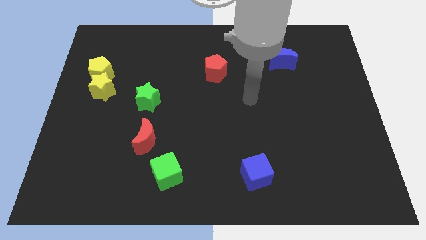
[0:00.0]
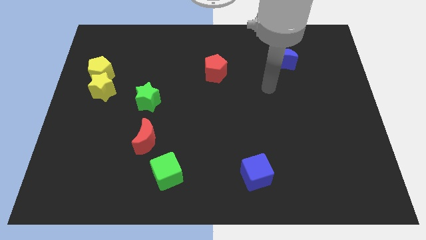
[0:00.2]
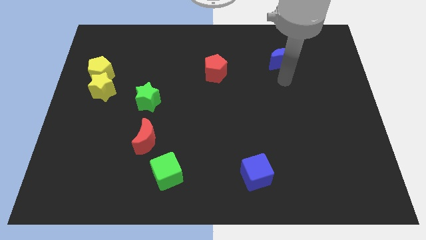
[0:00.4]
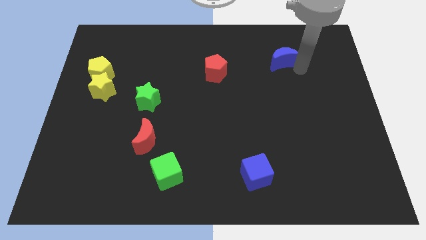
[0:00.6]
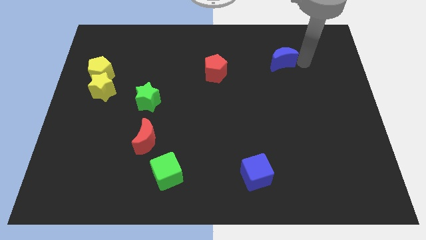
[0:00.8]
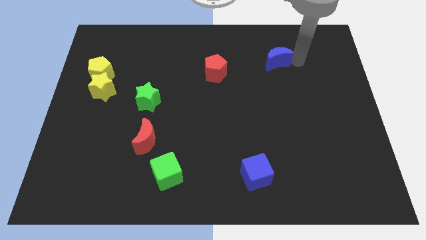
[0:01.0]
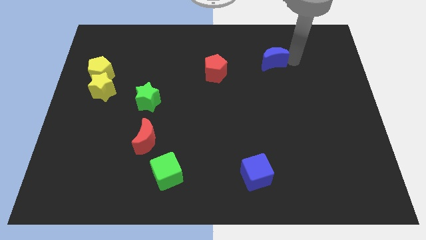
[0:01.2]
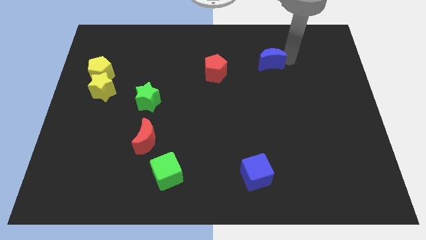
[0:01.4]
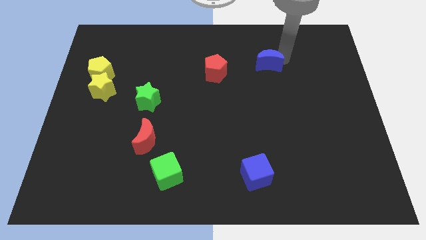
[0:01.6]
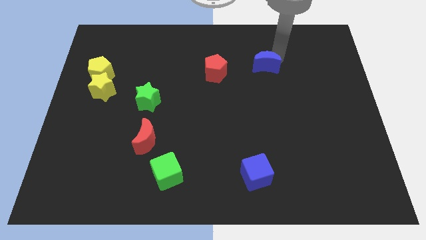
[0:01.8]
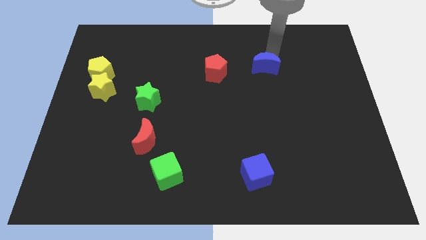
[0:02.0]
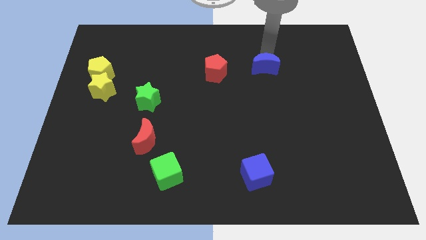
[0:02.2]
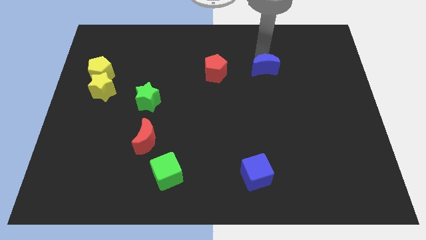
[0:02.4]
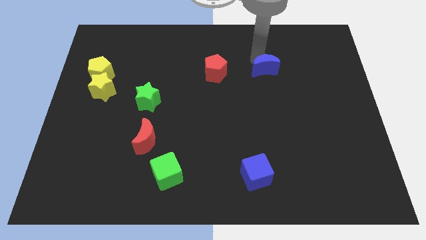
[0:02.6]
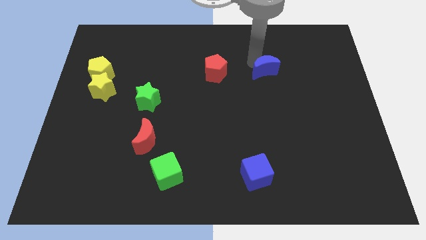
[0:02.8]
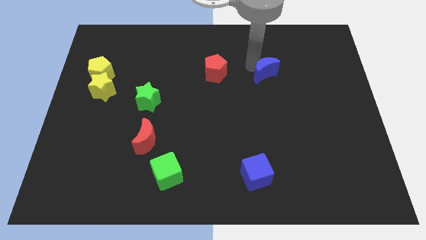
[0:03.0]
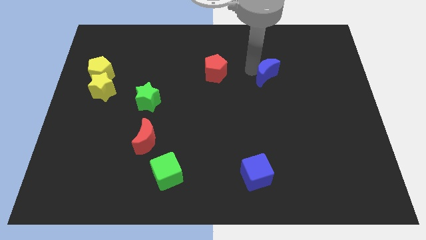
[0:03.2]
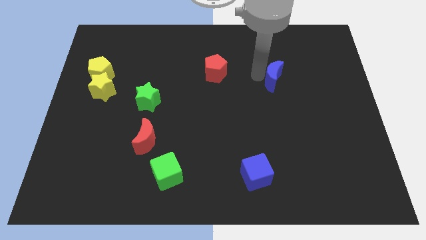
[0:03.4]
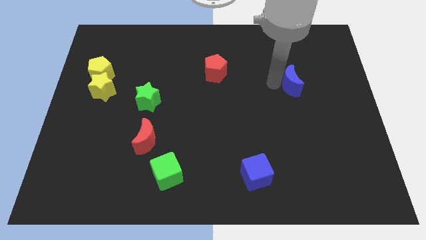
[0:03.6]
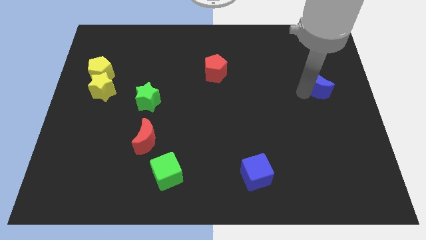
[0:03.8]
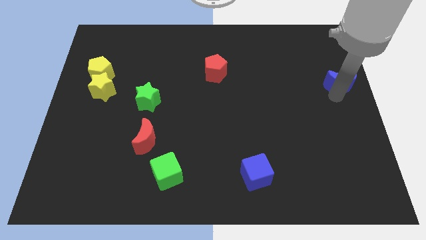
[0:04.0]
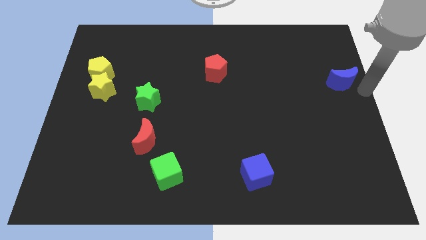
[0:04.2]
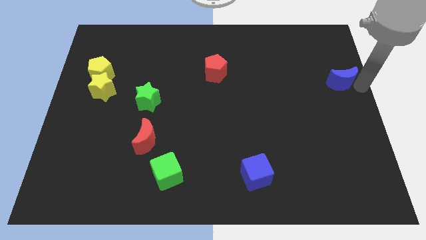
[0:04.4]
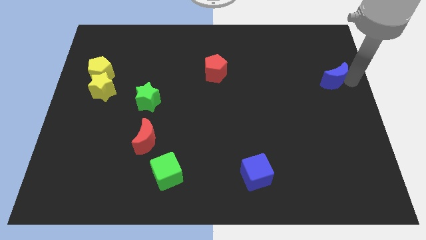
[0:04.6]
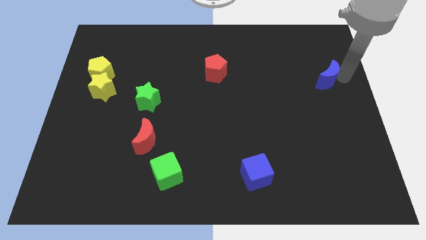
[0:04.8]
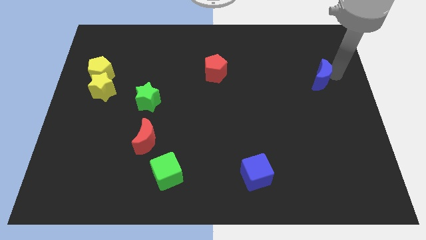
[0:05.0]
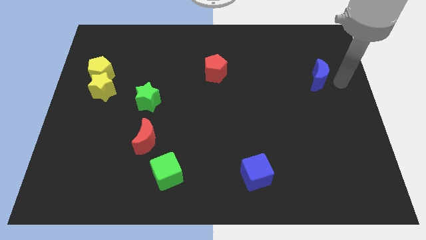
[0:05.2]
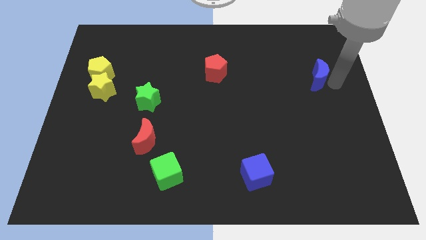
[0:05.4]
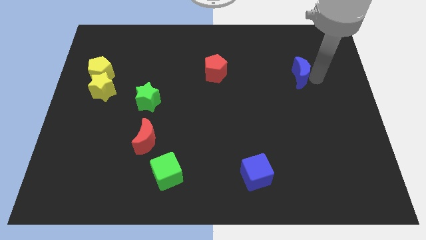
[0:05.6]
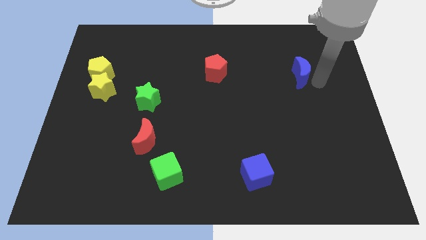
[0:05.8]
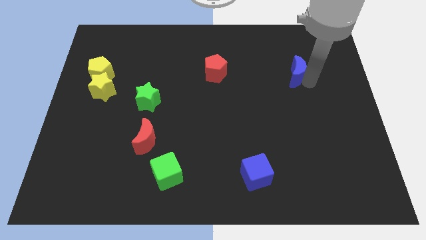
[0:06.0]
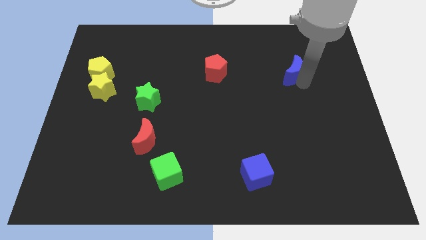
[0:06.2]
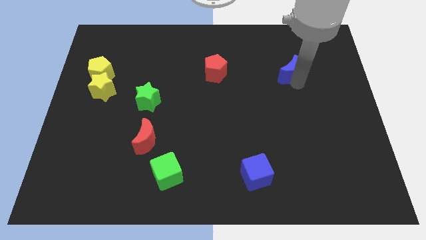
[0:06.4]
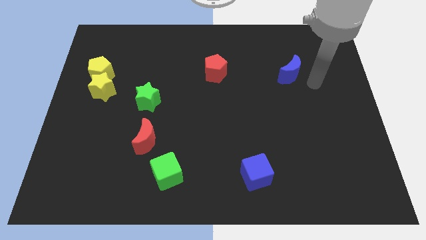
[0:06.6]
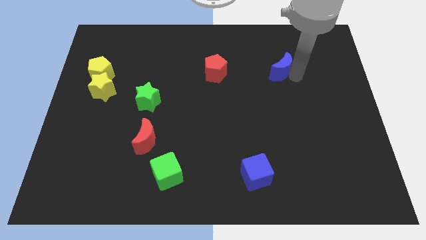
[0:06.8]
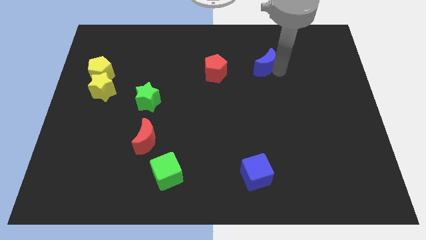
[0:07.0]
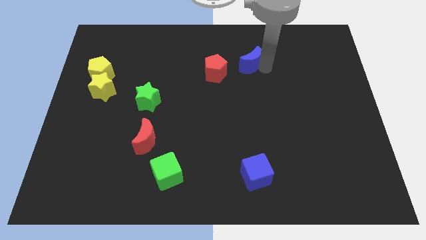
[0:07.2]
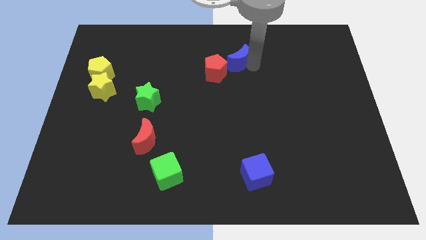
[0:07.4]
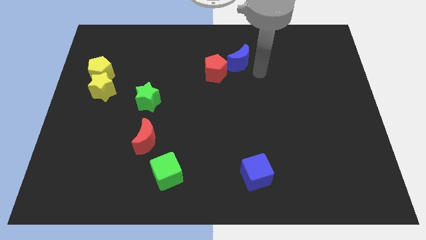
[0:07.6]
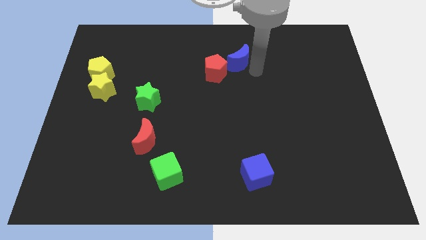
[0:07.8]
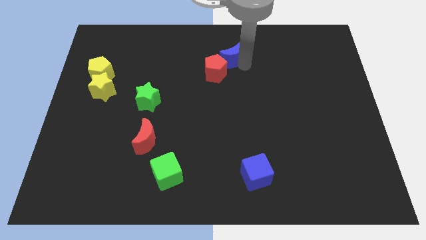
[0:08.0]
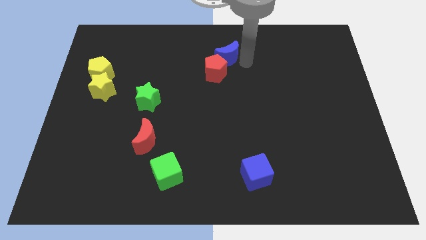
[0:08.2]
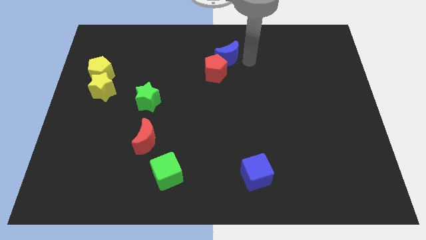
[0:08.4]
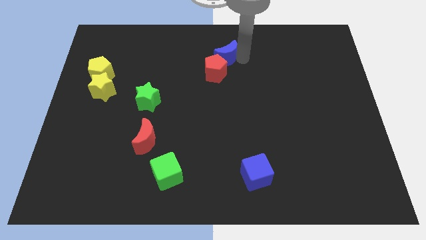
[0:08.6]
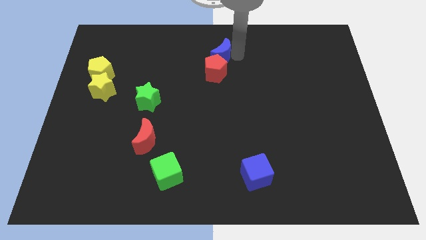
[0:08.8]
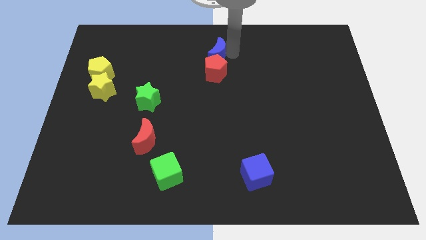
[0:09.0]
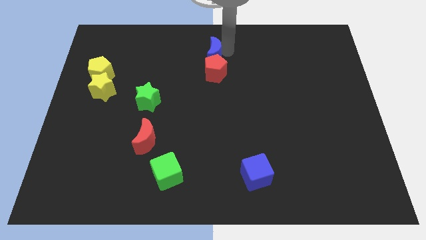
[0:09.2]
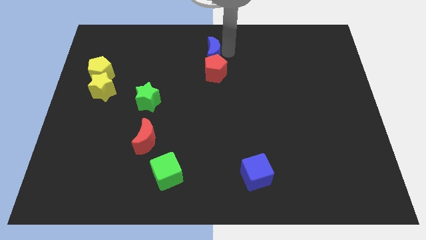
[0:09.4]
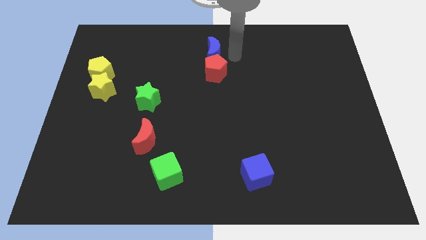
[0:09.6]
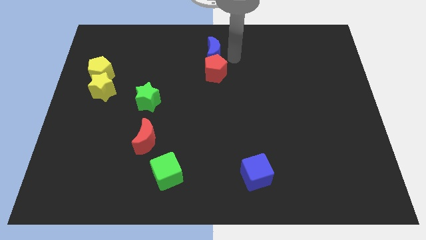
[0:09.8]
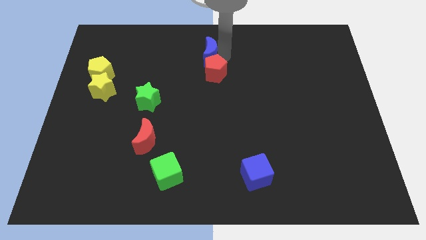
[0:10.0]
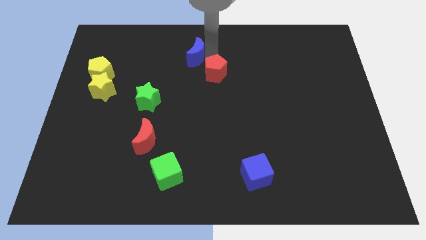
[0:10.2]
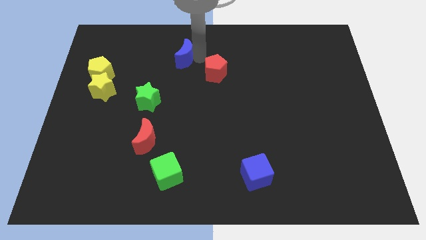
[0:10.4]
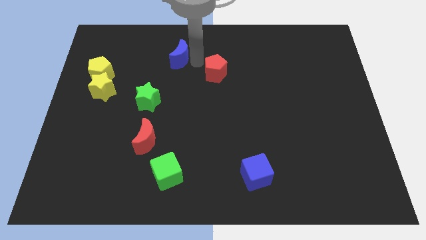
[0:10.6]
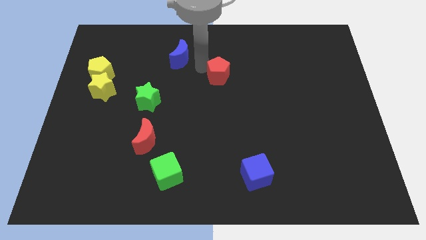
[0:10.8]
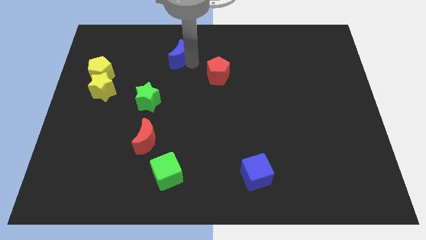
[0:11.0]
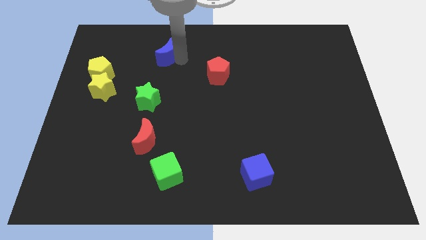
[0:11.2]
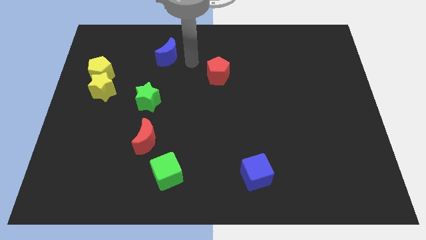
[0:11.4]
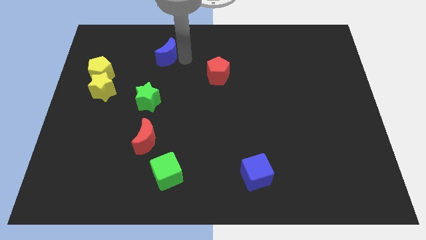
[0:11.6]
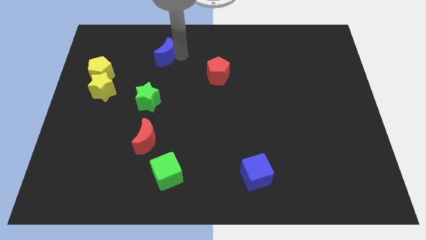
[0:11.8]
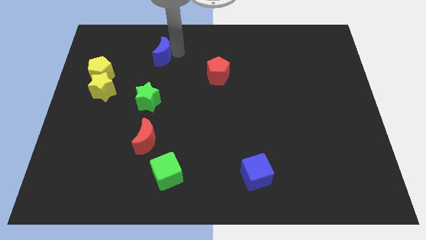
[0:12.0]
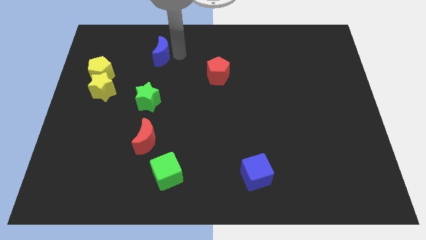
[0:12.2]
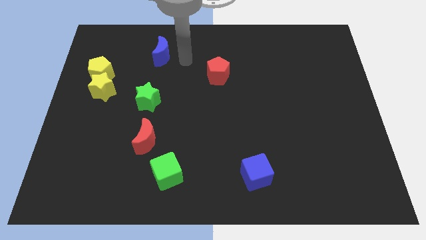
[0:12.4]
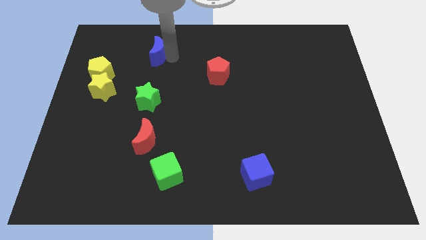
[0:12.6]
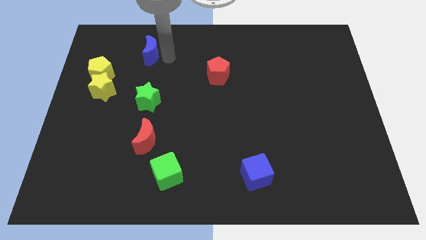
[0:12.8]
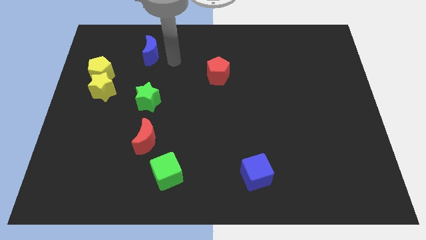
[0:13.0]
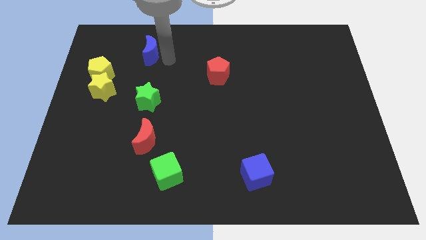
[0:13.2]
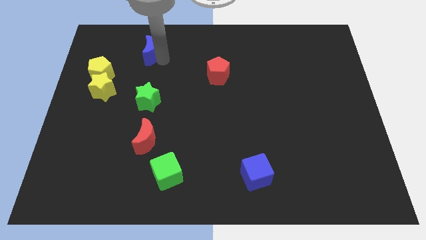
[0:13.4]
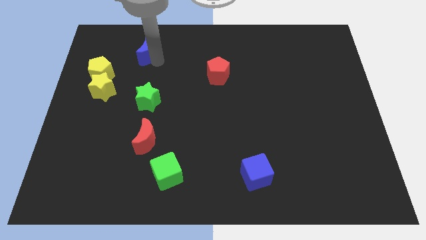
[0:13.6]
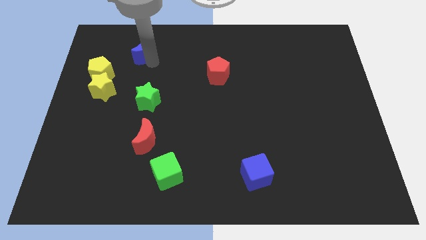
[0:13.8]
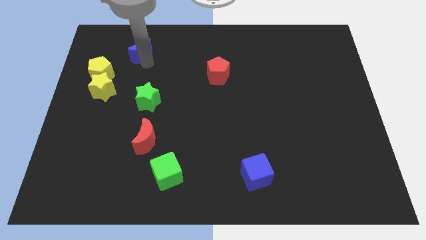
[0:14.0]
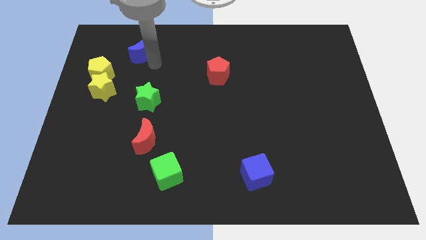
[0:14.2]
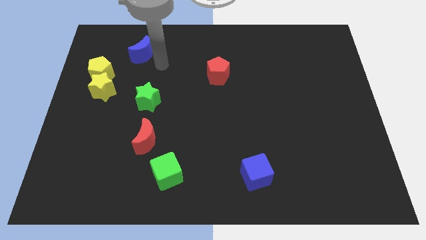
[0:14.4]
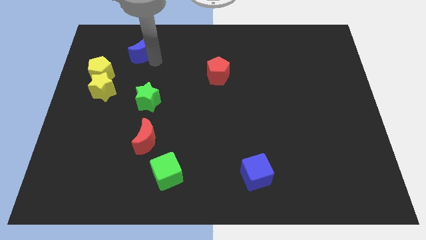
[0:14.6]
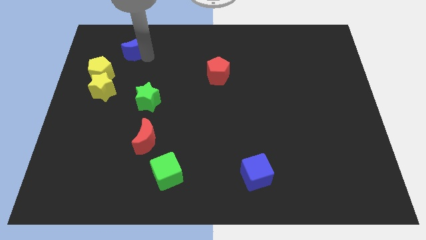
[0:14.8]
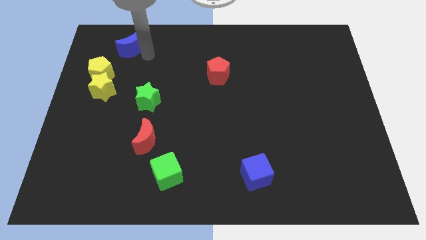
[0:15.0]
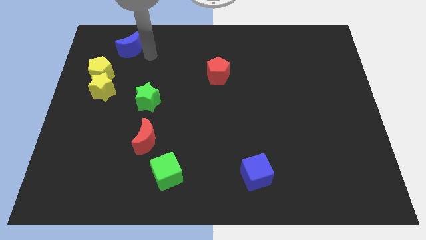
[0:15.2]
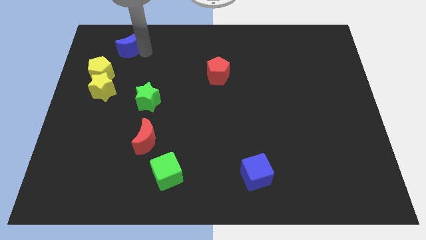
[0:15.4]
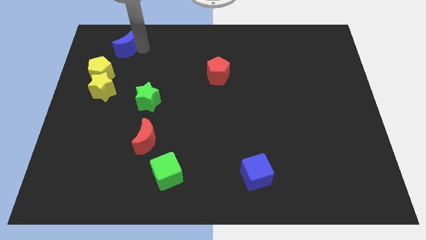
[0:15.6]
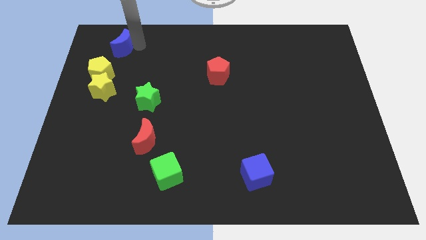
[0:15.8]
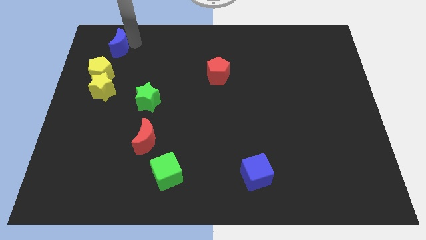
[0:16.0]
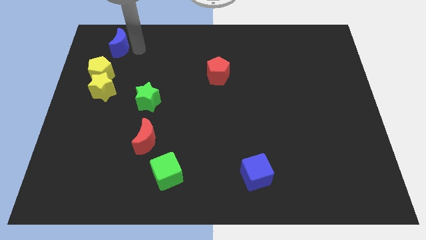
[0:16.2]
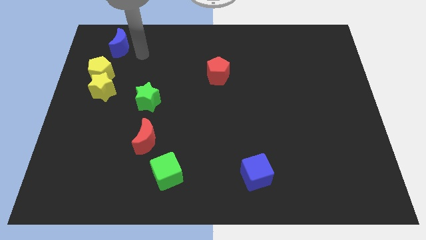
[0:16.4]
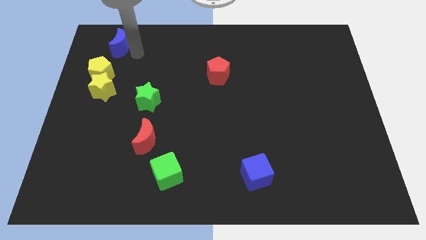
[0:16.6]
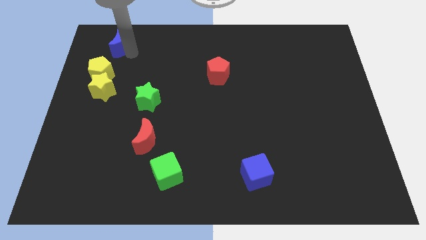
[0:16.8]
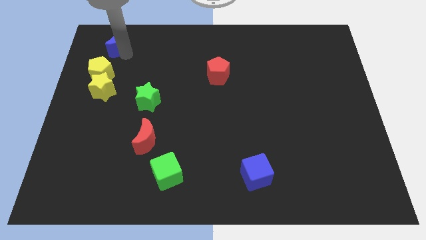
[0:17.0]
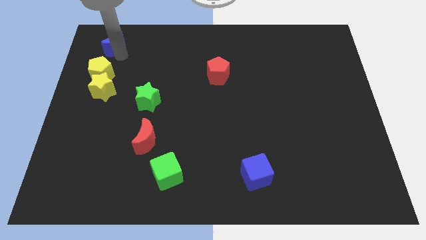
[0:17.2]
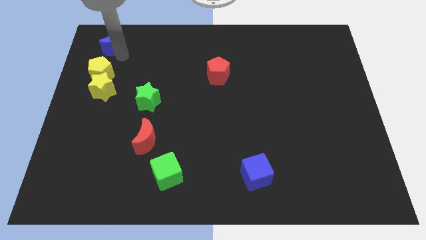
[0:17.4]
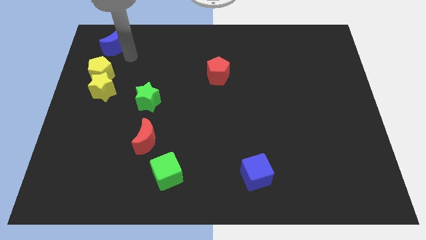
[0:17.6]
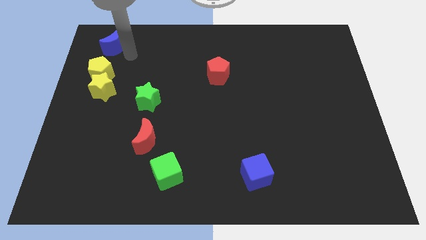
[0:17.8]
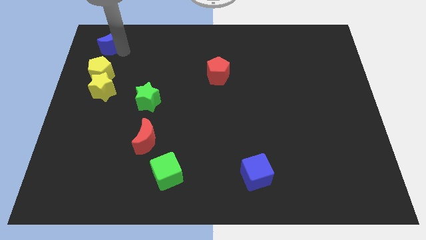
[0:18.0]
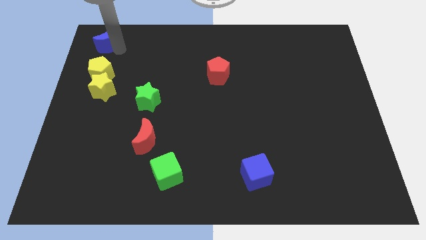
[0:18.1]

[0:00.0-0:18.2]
put the blue moon to the top left
